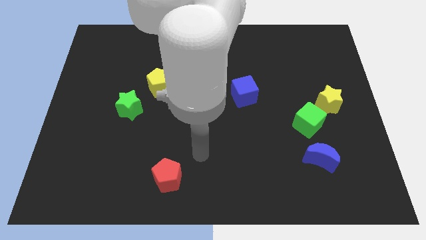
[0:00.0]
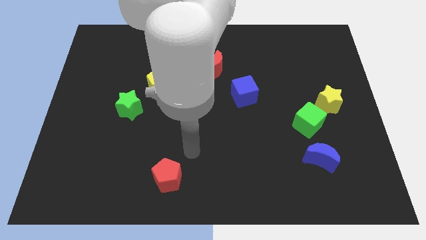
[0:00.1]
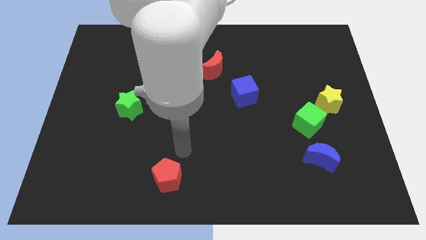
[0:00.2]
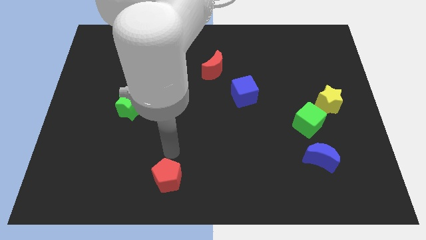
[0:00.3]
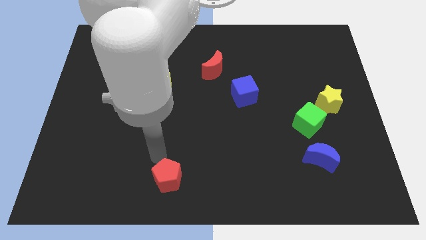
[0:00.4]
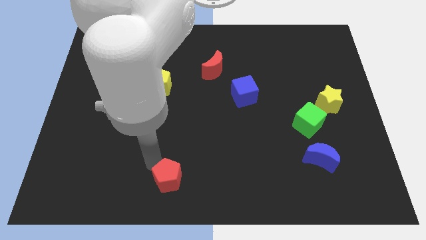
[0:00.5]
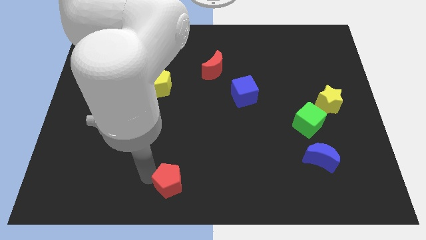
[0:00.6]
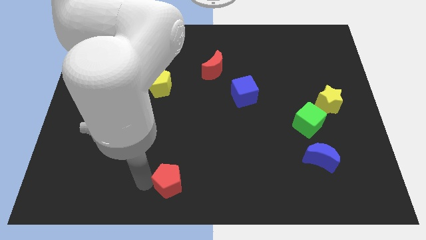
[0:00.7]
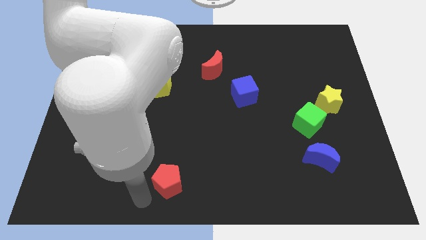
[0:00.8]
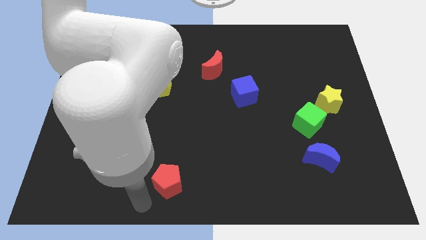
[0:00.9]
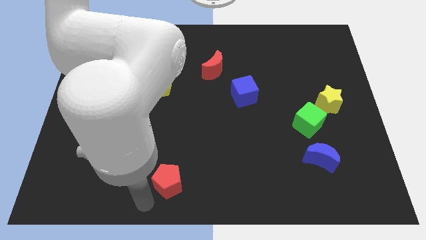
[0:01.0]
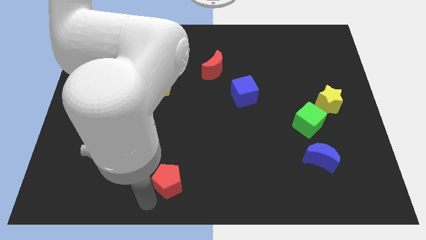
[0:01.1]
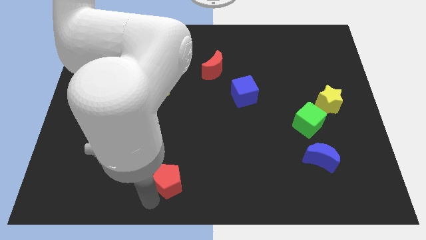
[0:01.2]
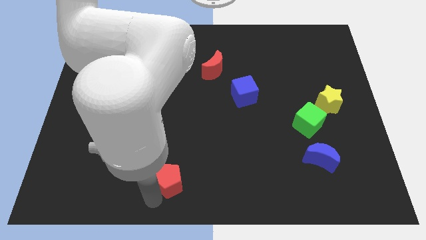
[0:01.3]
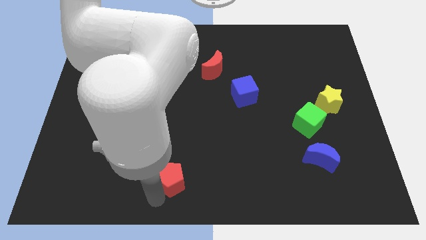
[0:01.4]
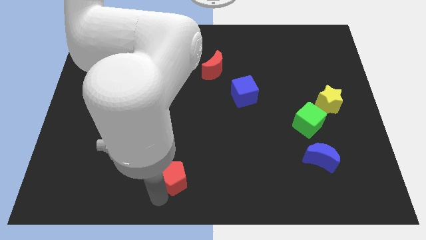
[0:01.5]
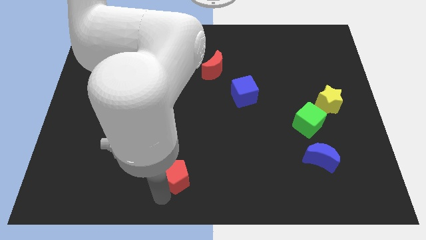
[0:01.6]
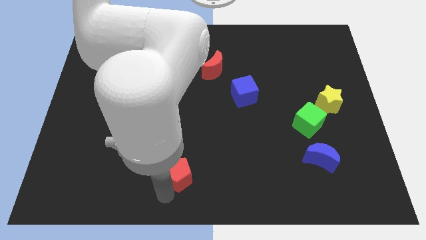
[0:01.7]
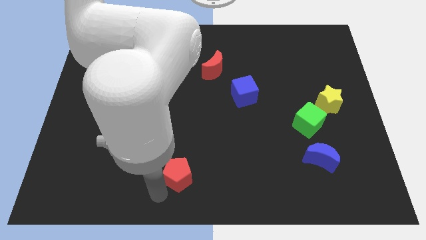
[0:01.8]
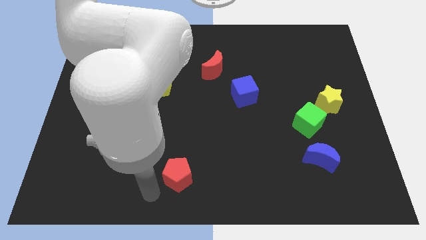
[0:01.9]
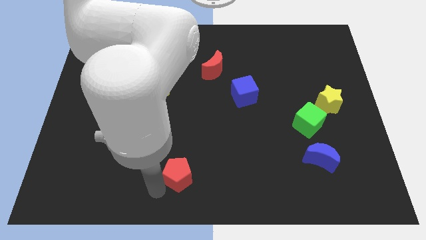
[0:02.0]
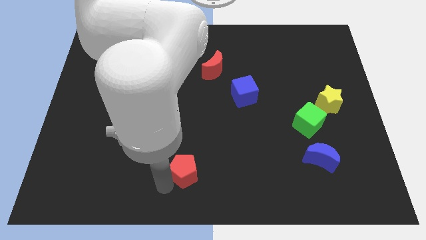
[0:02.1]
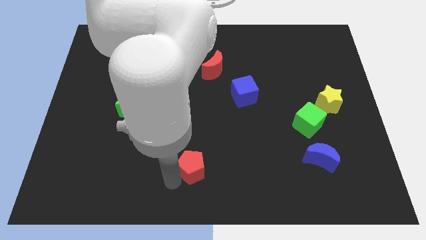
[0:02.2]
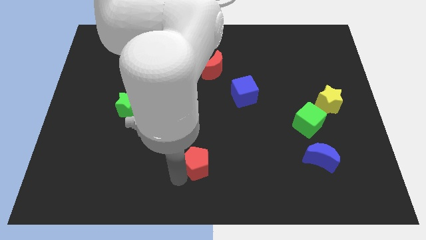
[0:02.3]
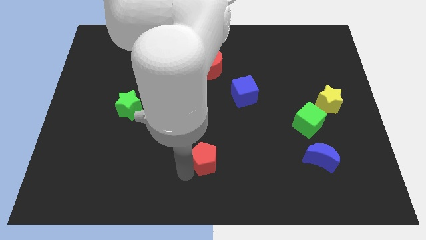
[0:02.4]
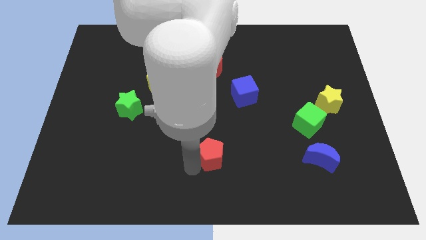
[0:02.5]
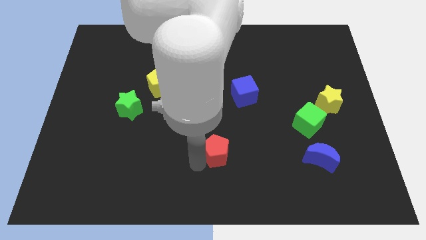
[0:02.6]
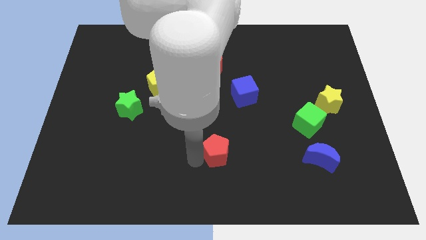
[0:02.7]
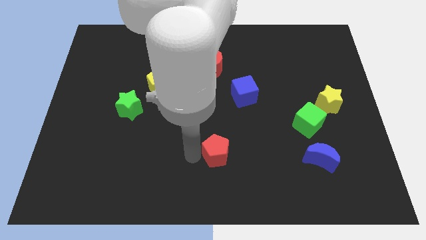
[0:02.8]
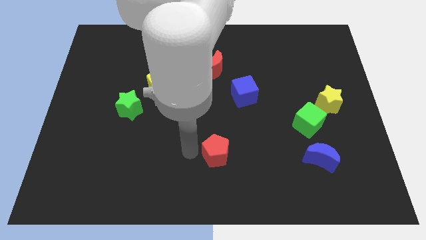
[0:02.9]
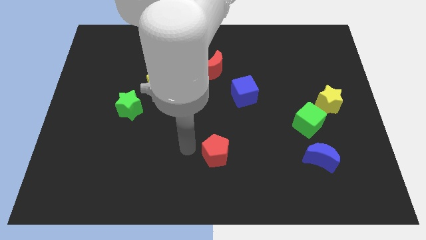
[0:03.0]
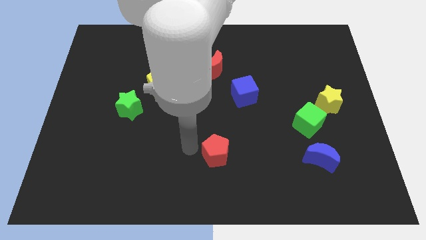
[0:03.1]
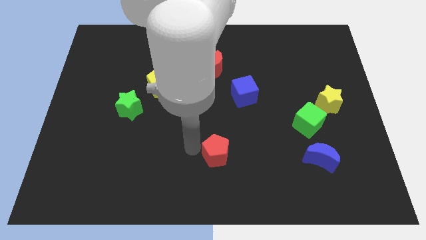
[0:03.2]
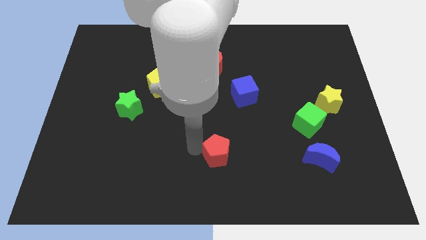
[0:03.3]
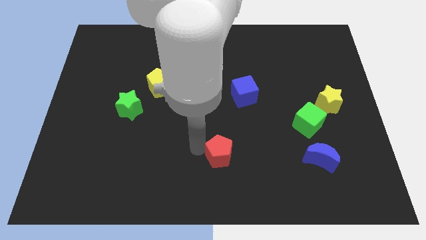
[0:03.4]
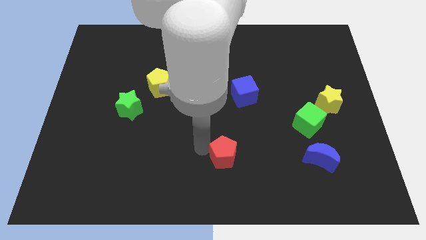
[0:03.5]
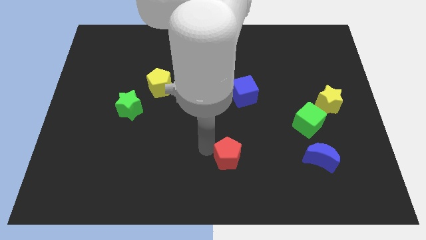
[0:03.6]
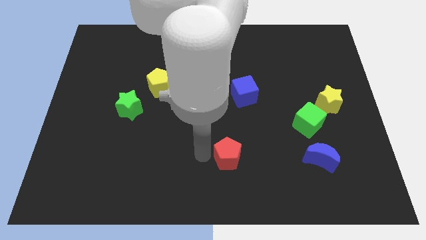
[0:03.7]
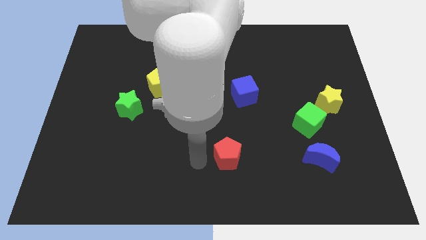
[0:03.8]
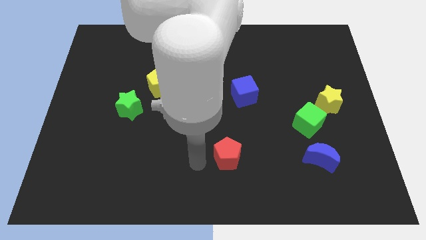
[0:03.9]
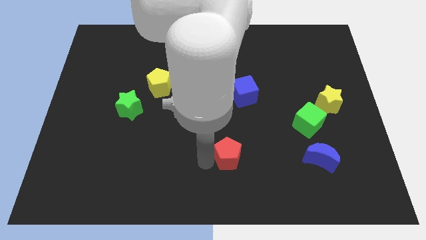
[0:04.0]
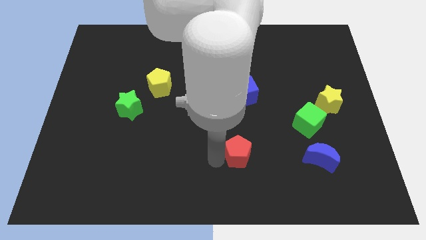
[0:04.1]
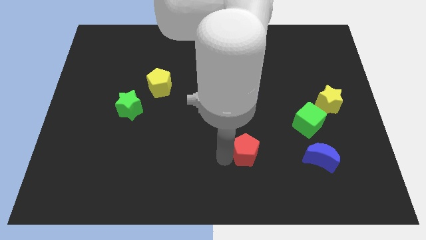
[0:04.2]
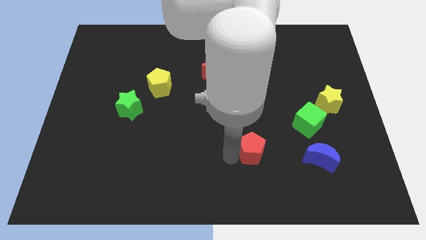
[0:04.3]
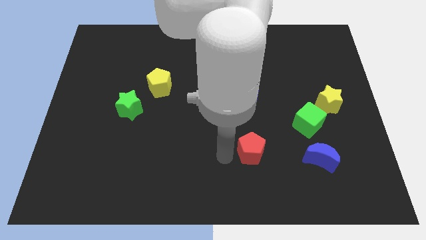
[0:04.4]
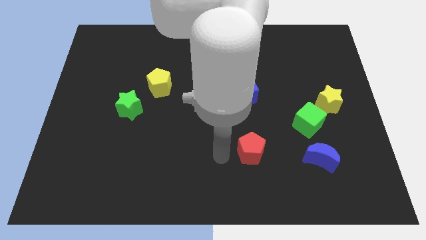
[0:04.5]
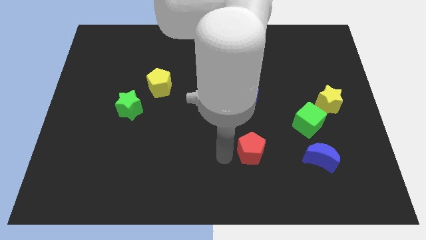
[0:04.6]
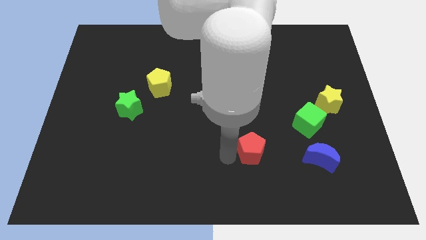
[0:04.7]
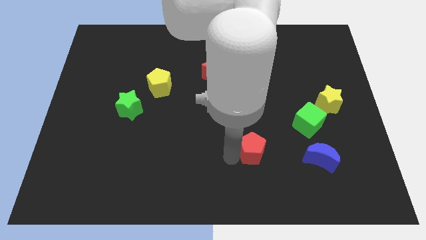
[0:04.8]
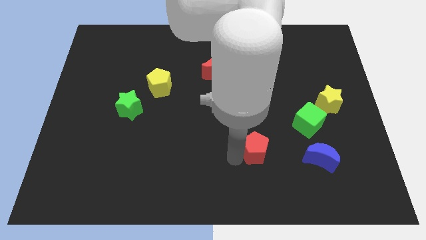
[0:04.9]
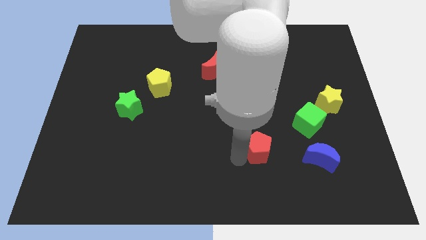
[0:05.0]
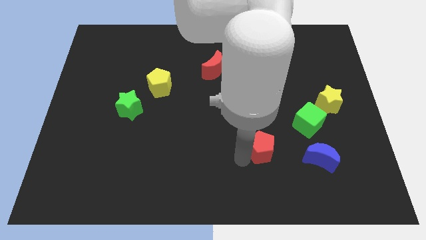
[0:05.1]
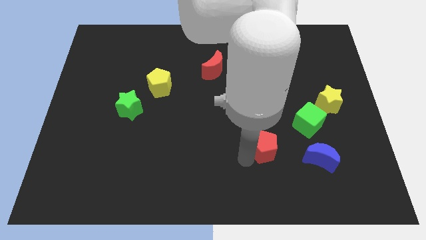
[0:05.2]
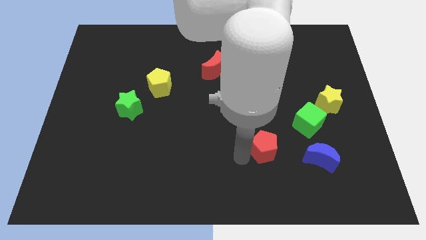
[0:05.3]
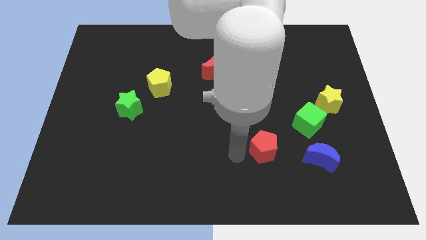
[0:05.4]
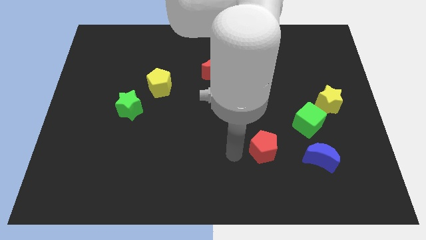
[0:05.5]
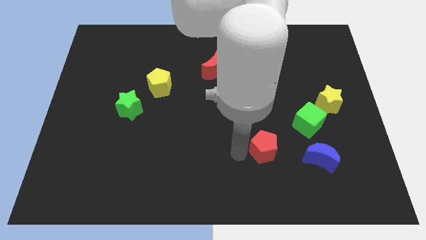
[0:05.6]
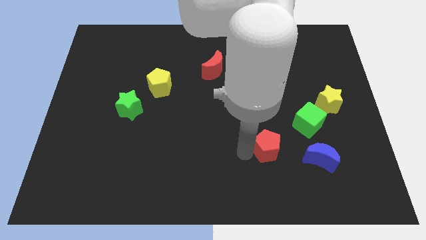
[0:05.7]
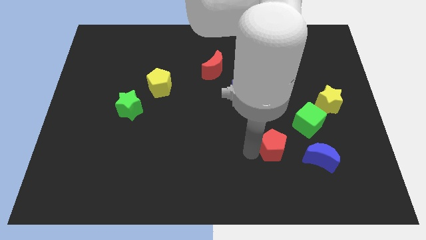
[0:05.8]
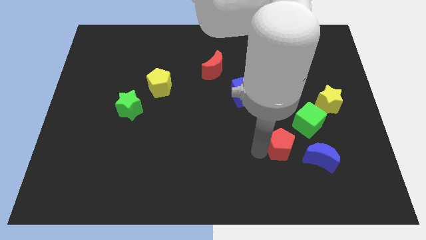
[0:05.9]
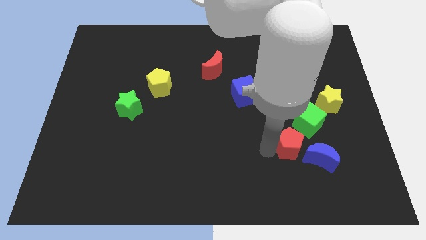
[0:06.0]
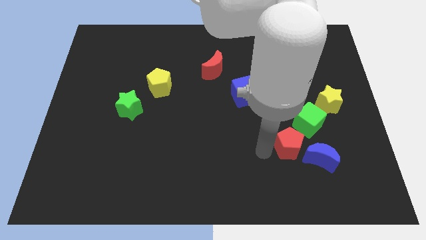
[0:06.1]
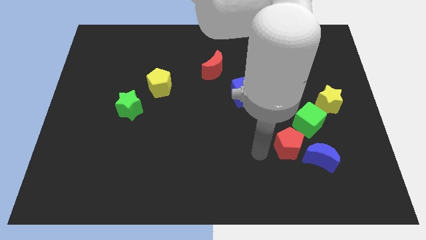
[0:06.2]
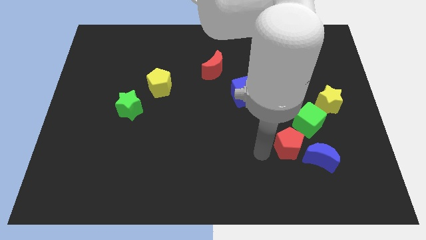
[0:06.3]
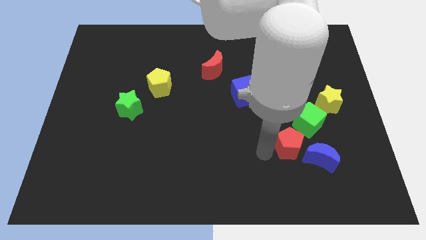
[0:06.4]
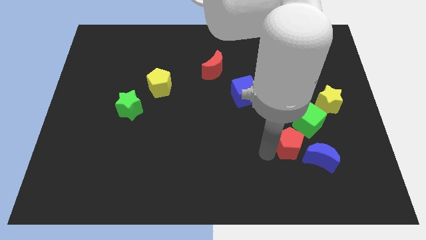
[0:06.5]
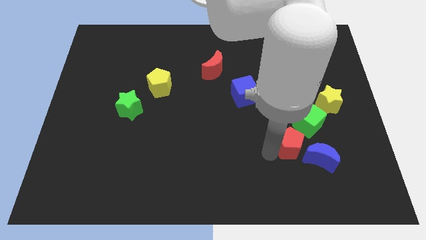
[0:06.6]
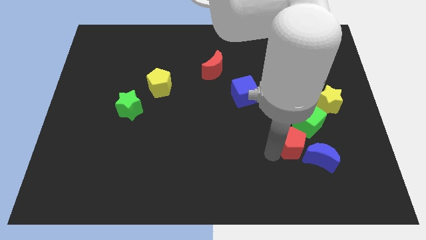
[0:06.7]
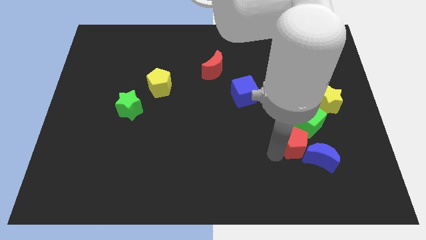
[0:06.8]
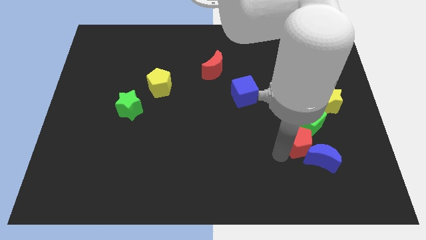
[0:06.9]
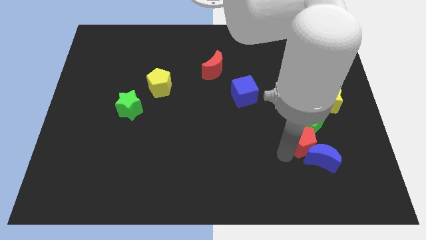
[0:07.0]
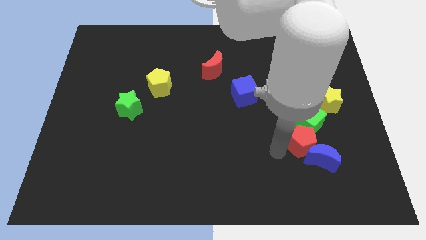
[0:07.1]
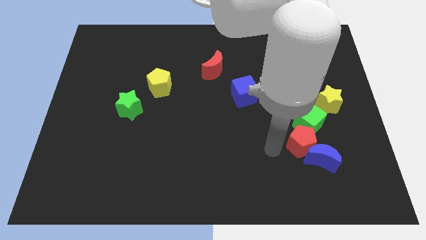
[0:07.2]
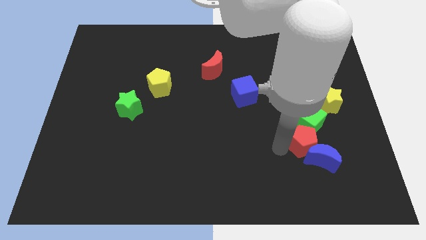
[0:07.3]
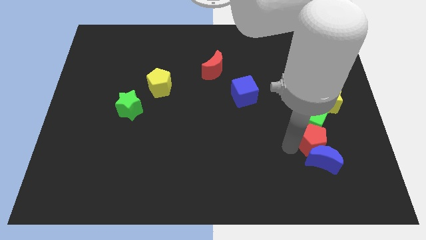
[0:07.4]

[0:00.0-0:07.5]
push the red pentagon to the top right of the blue moon
